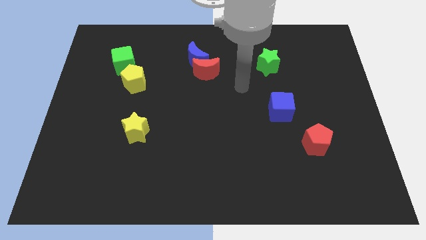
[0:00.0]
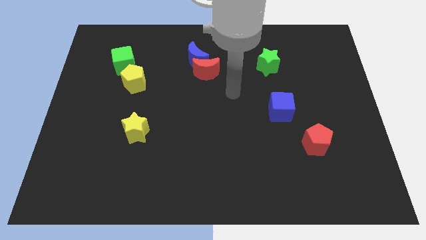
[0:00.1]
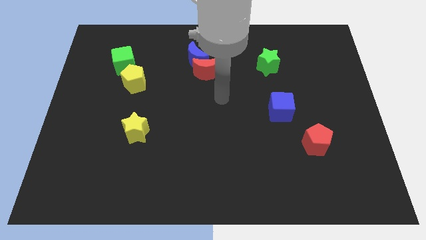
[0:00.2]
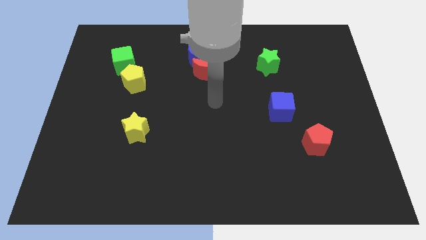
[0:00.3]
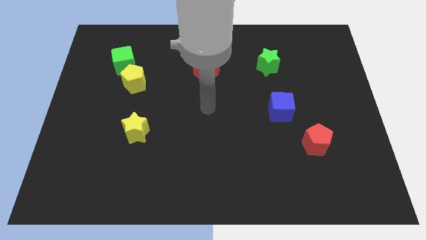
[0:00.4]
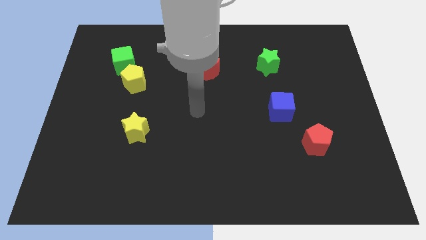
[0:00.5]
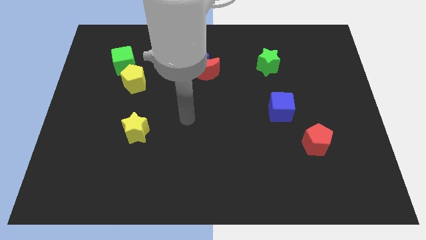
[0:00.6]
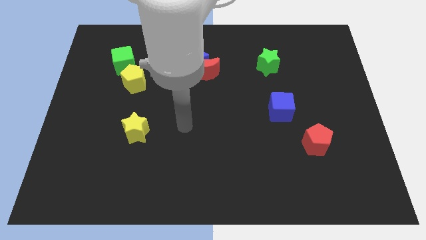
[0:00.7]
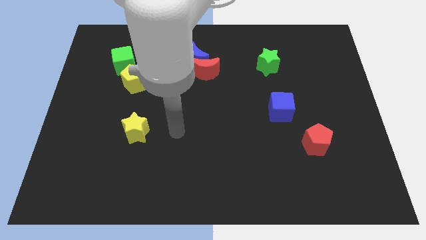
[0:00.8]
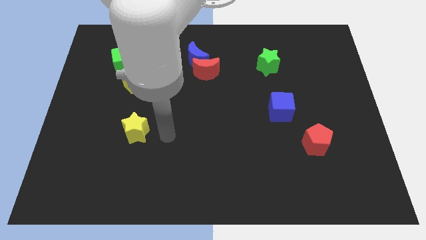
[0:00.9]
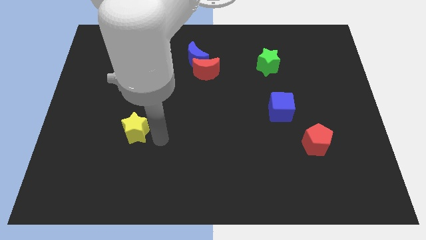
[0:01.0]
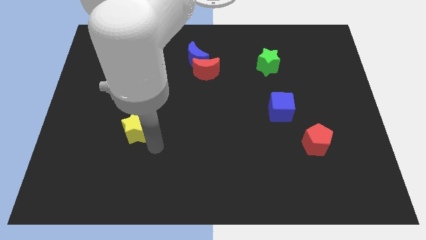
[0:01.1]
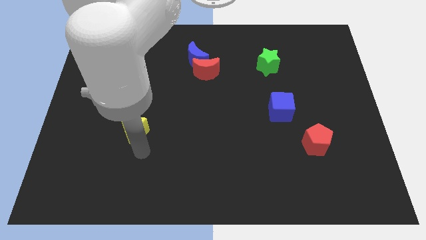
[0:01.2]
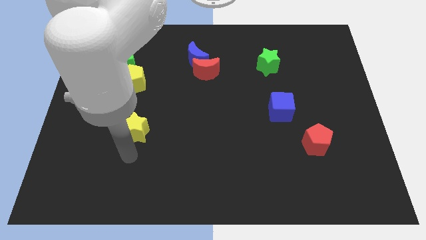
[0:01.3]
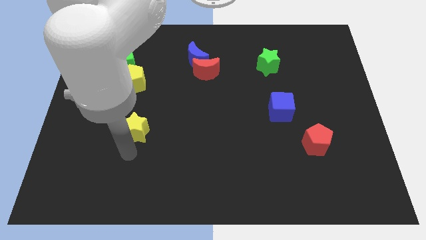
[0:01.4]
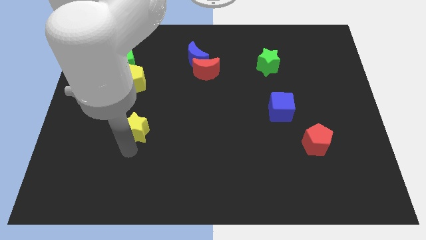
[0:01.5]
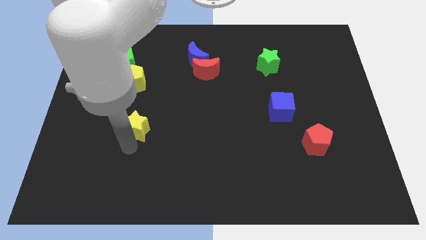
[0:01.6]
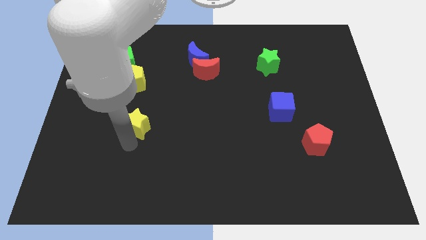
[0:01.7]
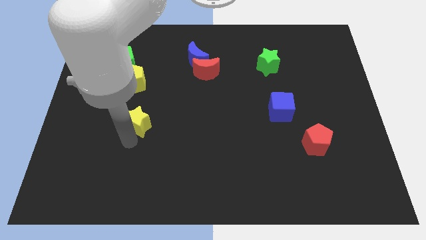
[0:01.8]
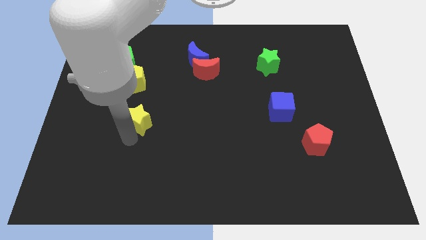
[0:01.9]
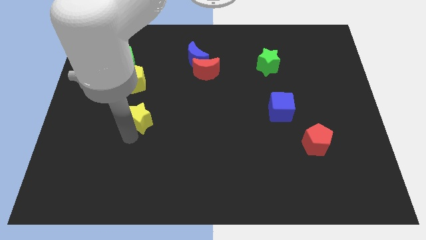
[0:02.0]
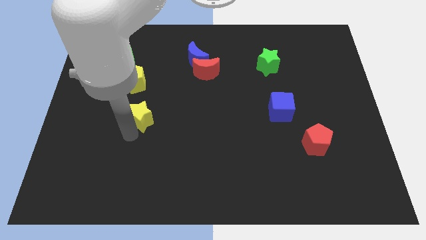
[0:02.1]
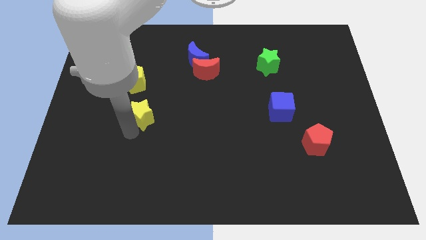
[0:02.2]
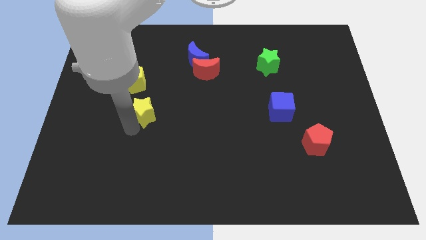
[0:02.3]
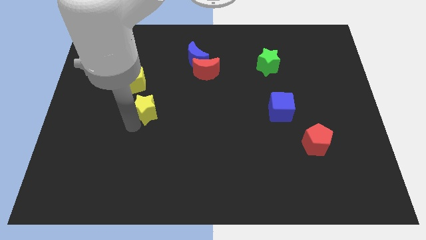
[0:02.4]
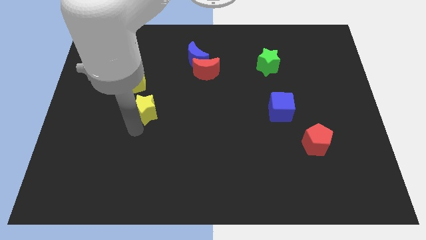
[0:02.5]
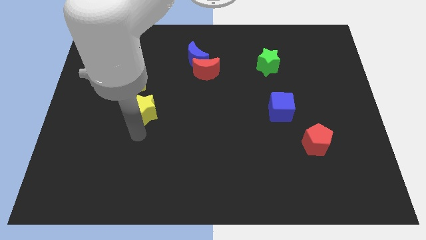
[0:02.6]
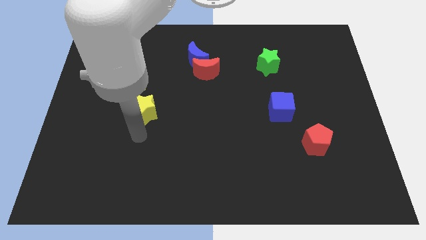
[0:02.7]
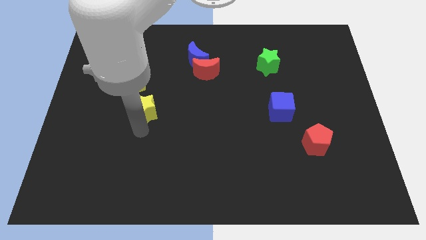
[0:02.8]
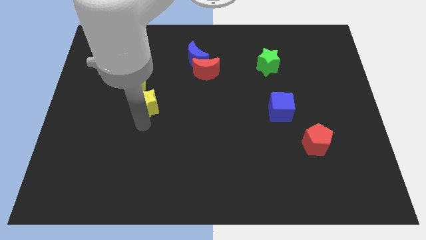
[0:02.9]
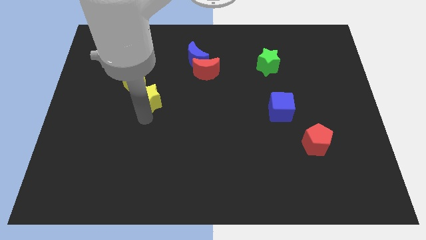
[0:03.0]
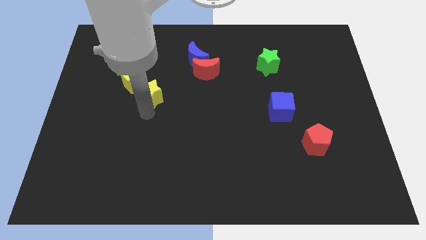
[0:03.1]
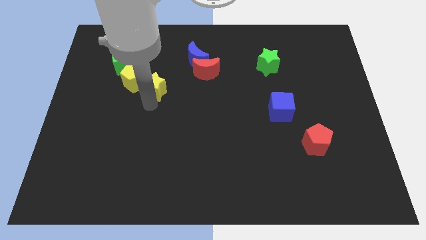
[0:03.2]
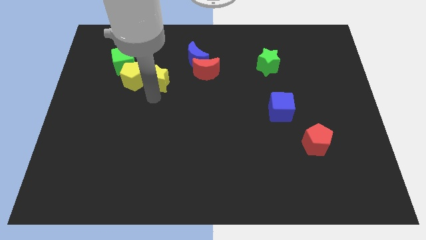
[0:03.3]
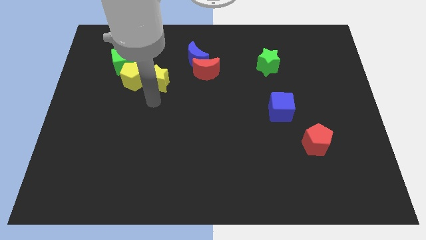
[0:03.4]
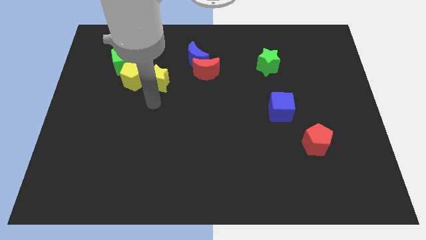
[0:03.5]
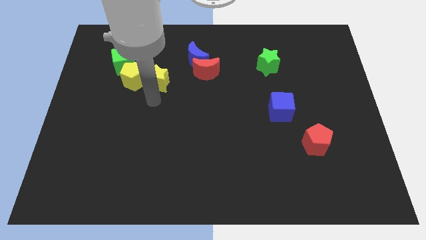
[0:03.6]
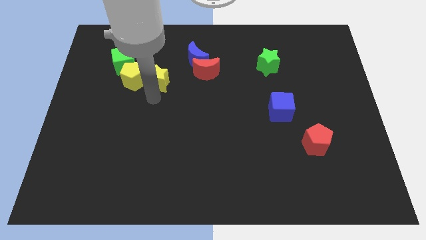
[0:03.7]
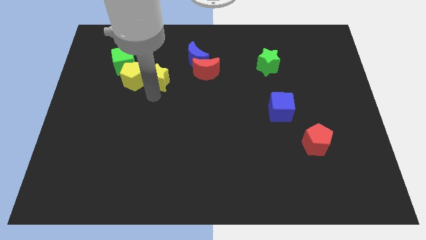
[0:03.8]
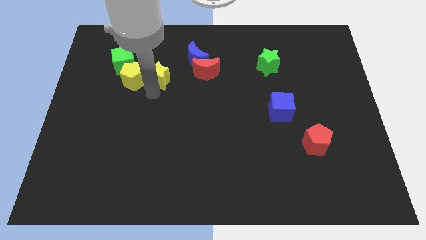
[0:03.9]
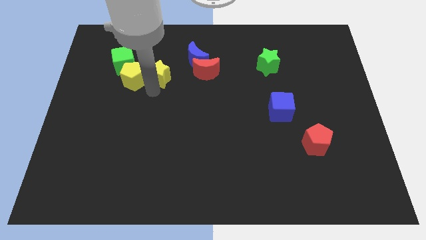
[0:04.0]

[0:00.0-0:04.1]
push the yellow star to the right of the green cube

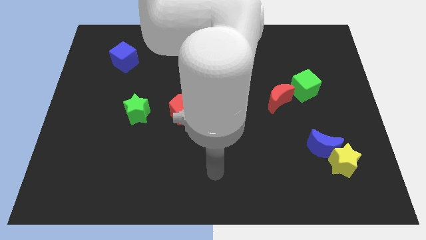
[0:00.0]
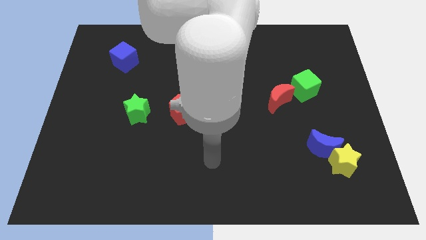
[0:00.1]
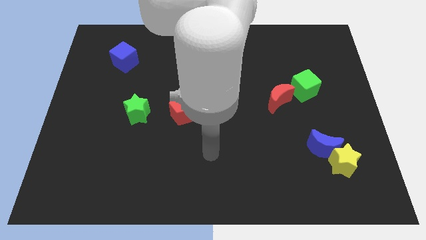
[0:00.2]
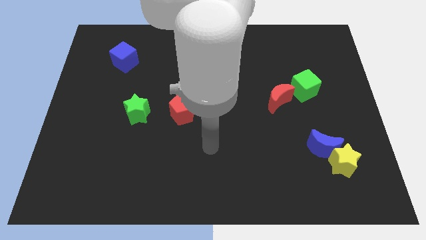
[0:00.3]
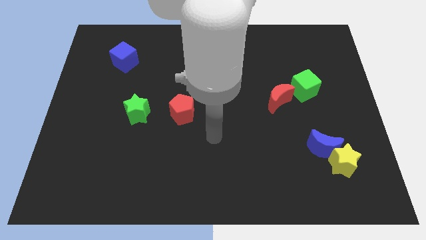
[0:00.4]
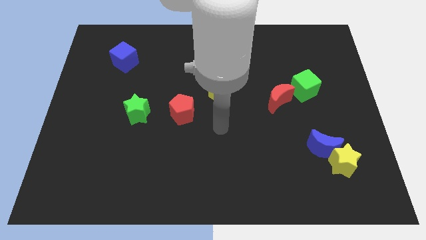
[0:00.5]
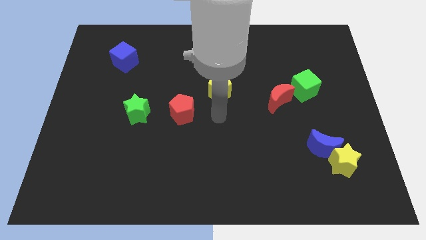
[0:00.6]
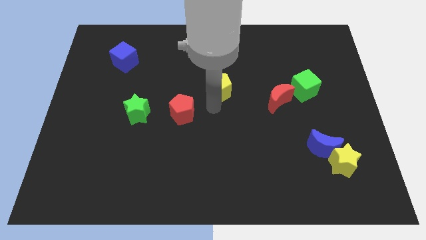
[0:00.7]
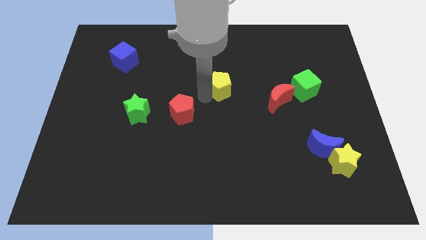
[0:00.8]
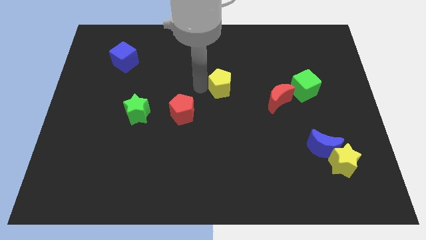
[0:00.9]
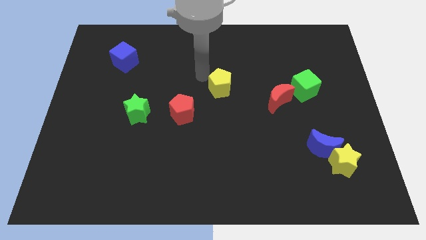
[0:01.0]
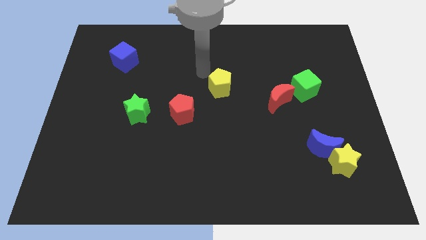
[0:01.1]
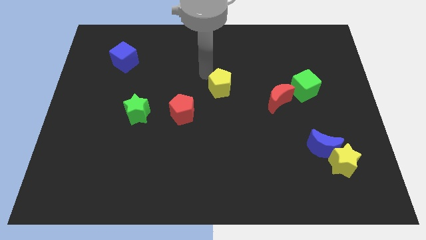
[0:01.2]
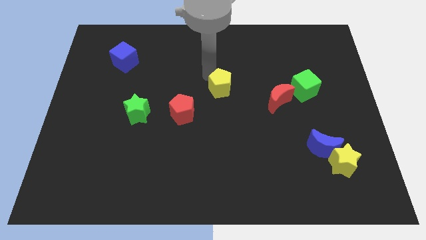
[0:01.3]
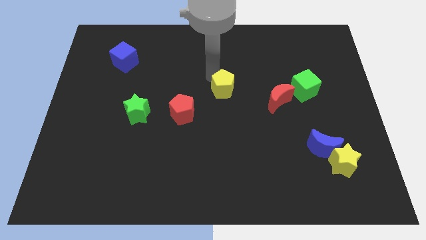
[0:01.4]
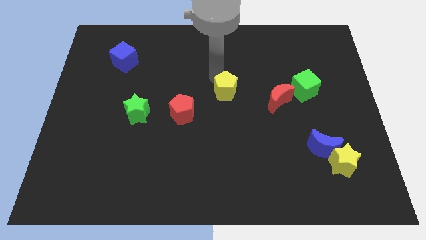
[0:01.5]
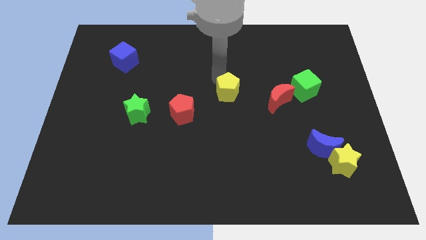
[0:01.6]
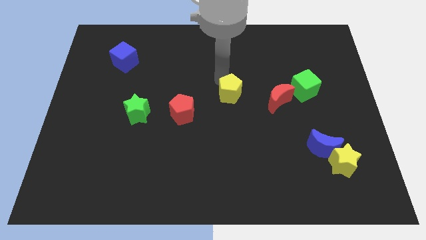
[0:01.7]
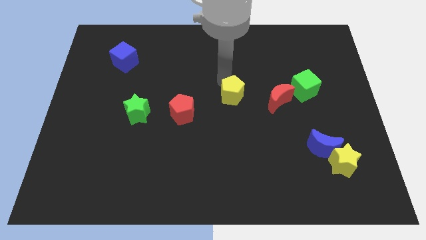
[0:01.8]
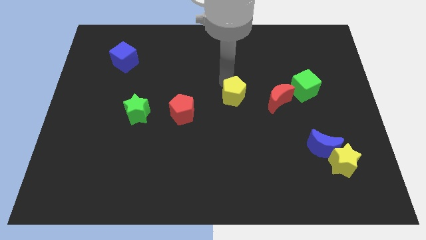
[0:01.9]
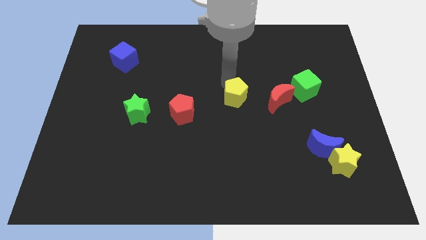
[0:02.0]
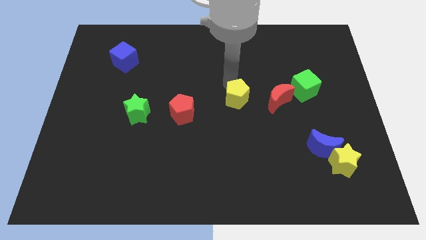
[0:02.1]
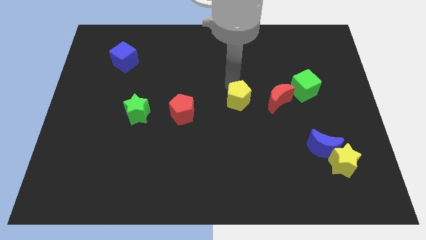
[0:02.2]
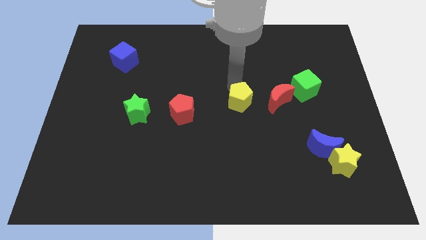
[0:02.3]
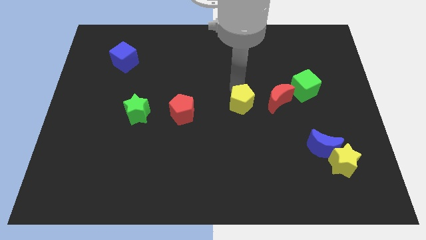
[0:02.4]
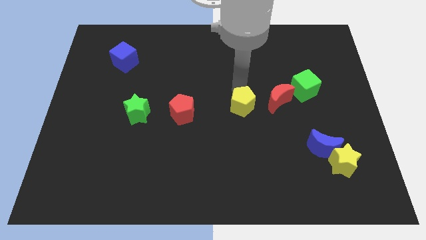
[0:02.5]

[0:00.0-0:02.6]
put the yellow pentagon to the bottom left side of the red moon

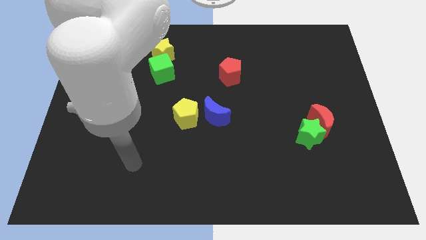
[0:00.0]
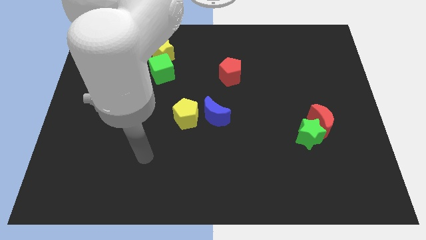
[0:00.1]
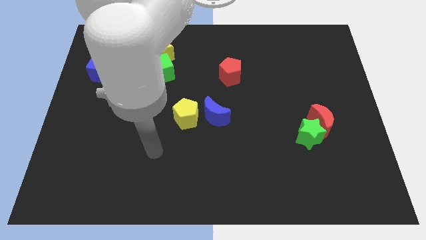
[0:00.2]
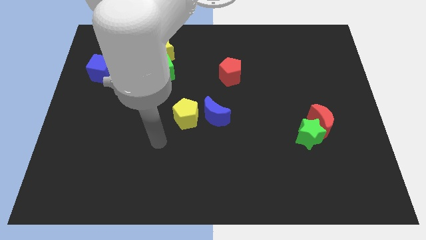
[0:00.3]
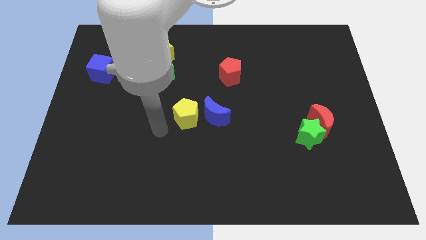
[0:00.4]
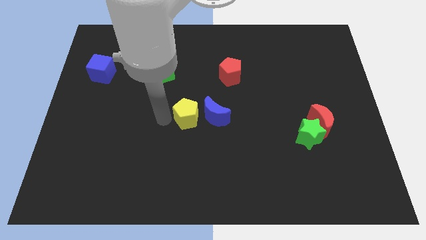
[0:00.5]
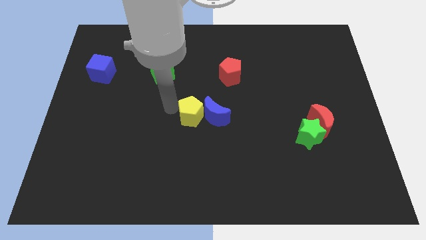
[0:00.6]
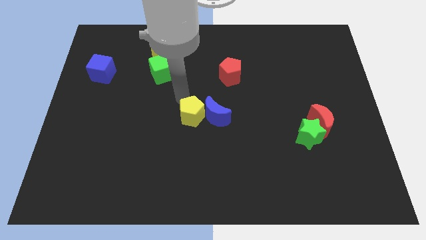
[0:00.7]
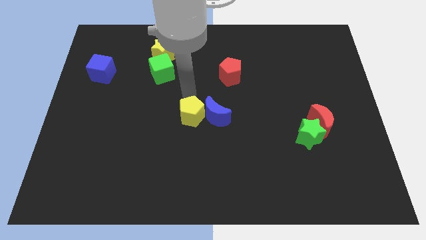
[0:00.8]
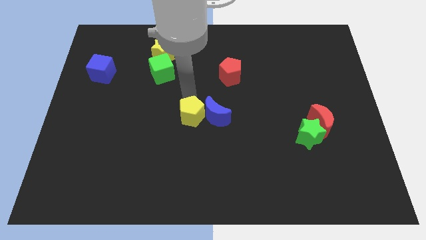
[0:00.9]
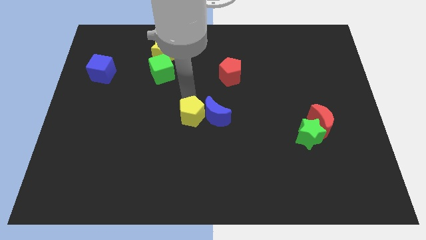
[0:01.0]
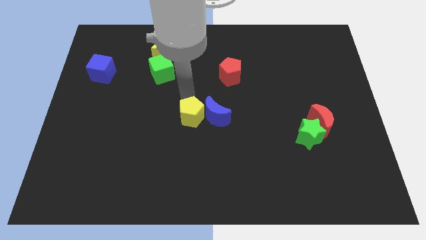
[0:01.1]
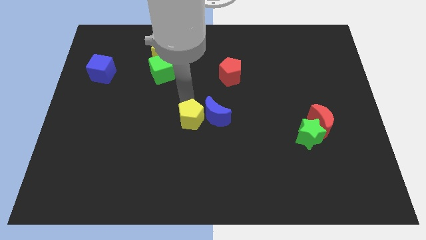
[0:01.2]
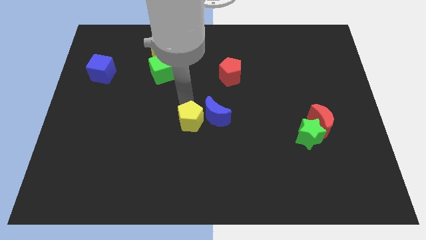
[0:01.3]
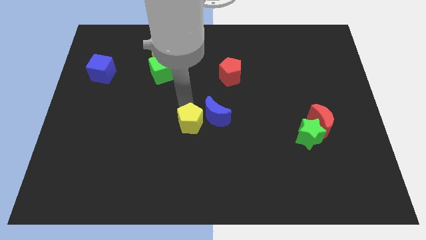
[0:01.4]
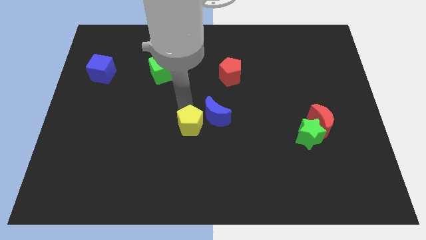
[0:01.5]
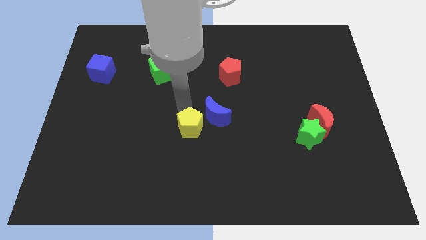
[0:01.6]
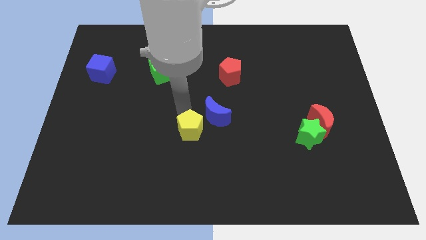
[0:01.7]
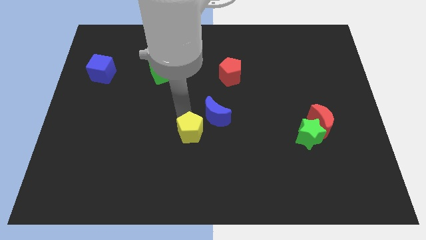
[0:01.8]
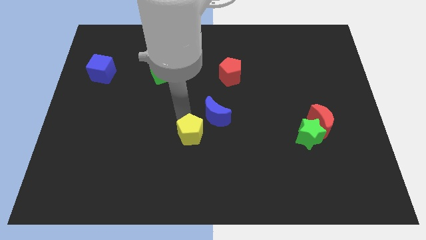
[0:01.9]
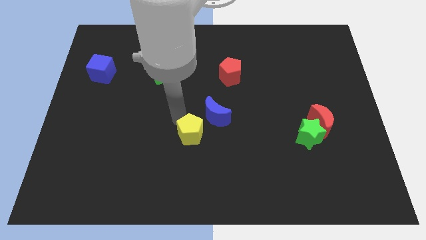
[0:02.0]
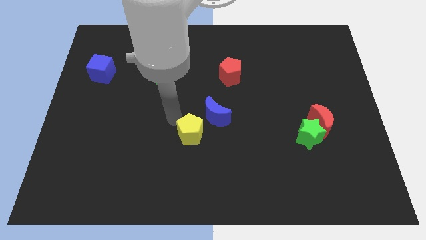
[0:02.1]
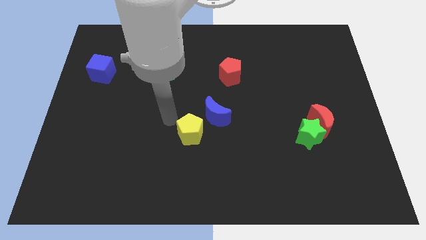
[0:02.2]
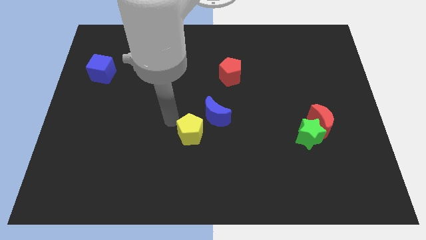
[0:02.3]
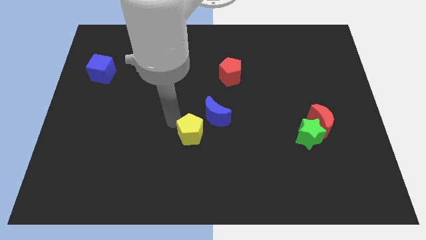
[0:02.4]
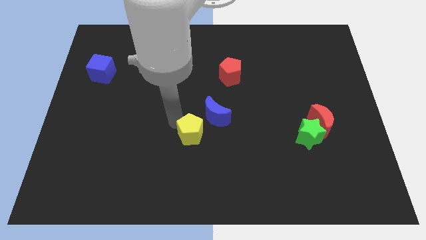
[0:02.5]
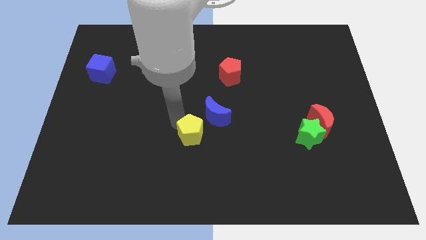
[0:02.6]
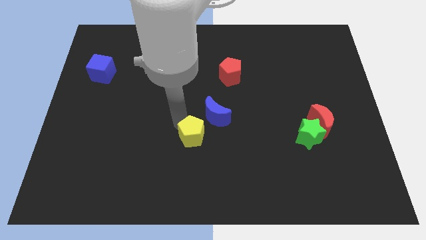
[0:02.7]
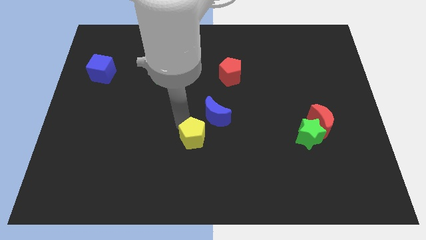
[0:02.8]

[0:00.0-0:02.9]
move the yellow pentagon to the bottom of the blue moon
